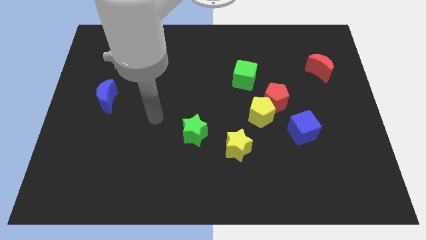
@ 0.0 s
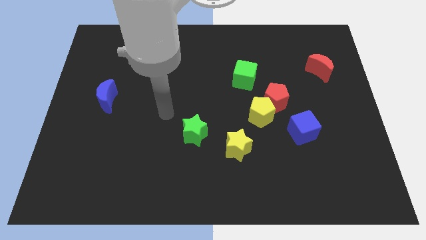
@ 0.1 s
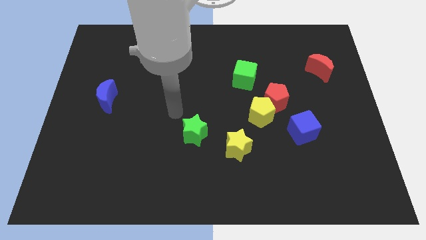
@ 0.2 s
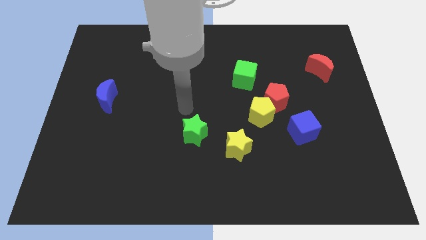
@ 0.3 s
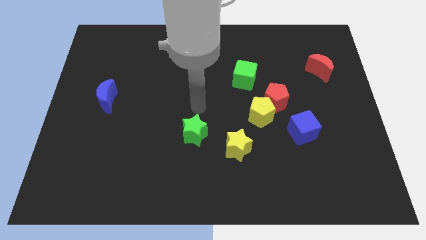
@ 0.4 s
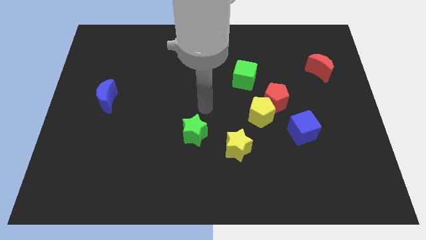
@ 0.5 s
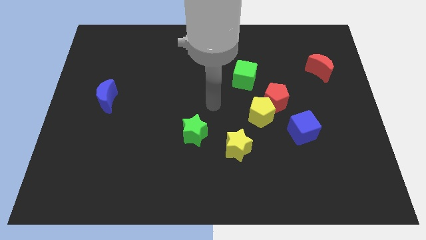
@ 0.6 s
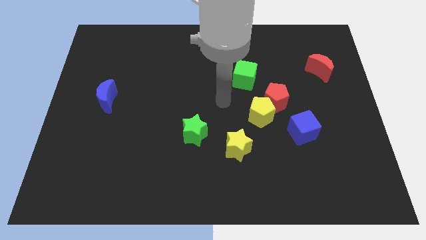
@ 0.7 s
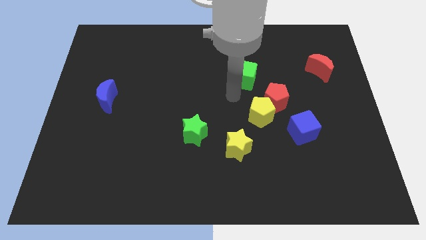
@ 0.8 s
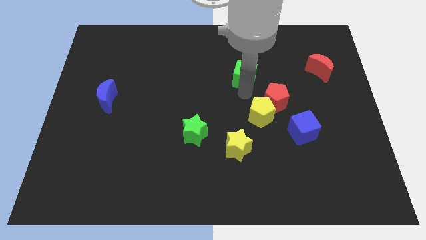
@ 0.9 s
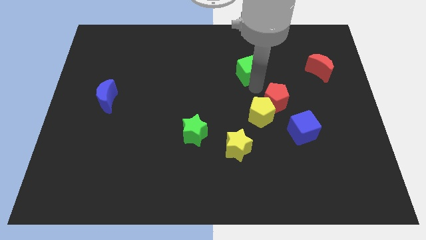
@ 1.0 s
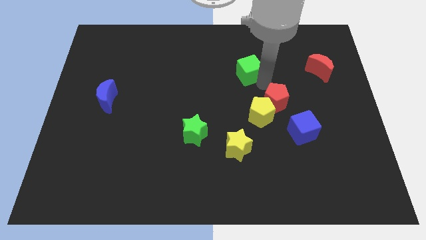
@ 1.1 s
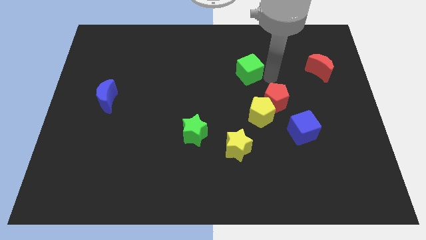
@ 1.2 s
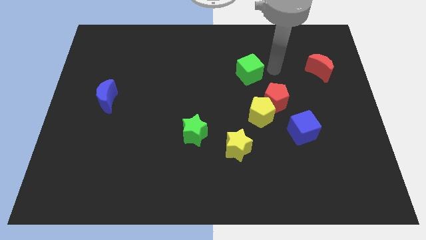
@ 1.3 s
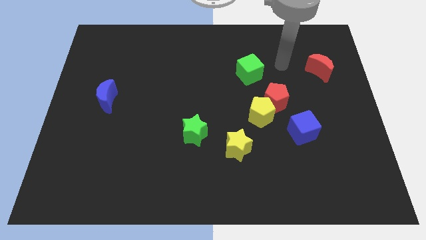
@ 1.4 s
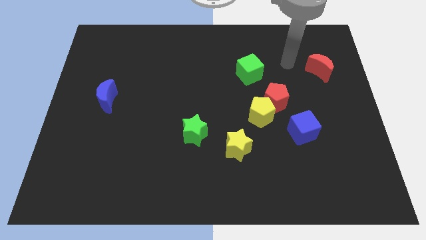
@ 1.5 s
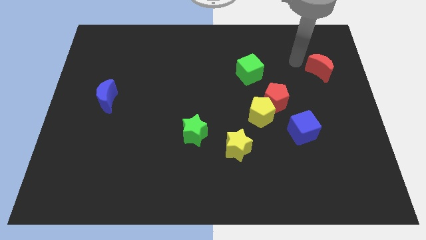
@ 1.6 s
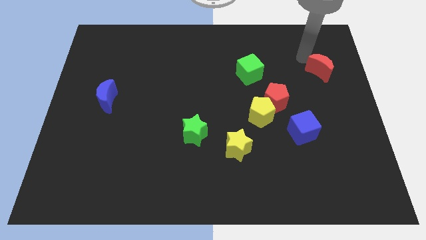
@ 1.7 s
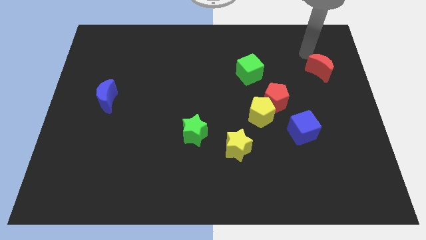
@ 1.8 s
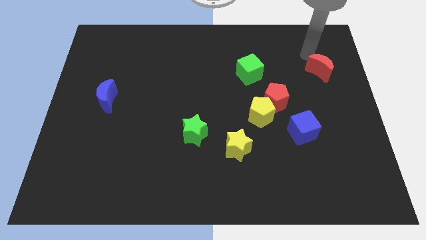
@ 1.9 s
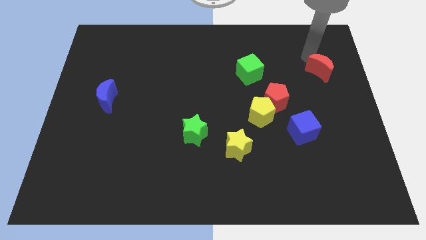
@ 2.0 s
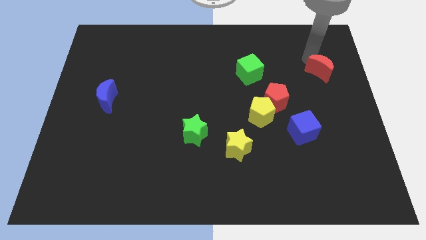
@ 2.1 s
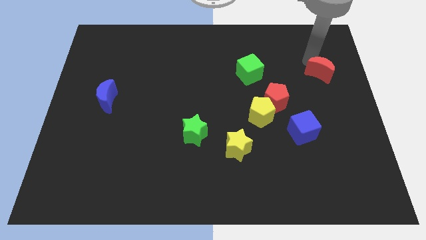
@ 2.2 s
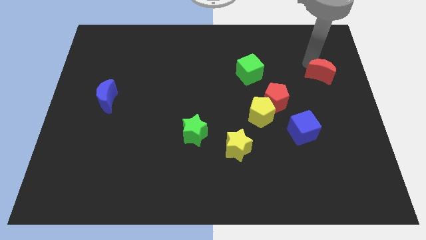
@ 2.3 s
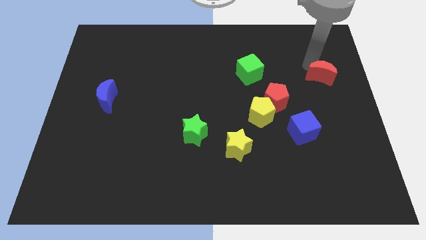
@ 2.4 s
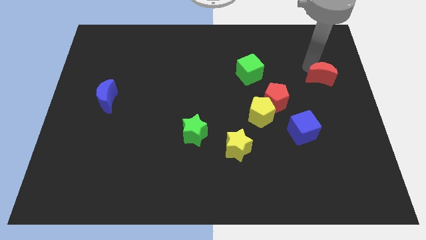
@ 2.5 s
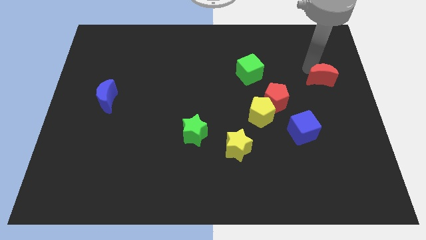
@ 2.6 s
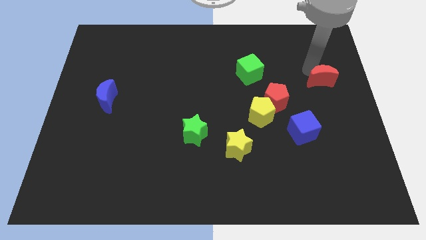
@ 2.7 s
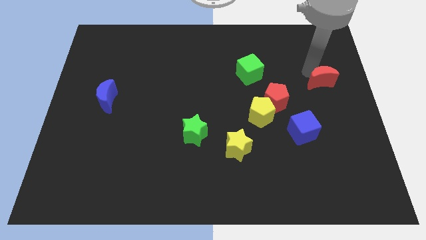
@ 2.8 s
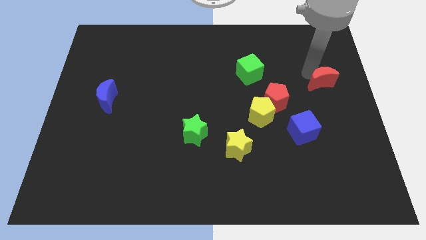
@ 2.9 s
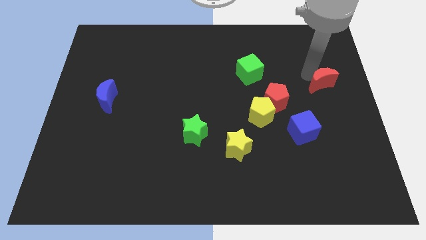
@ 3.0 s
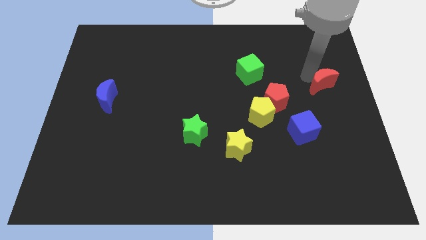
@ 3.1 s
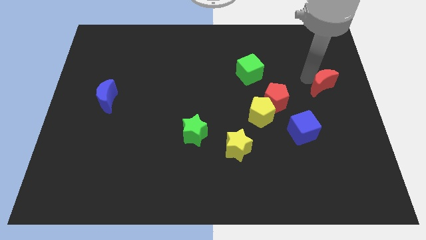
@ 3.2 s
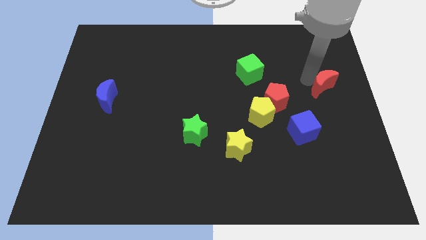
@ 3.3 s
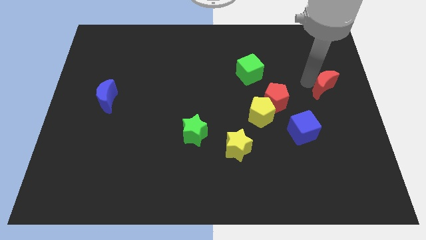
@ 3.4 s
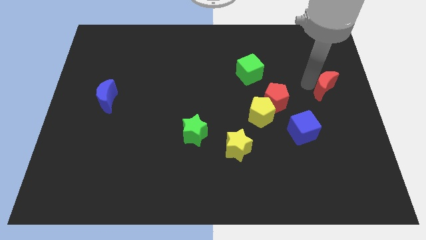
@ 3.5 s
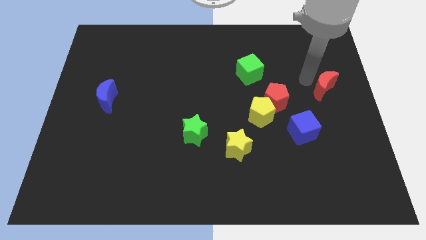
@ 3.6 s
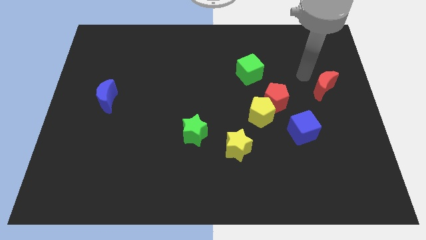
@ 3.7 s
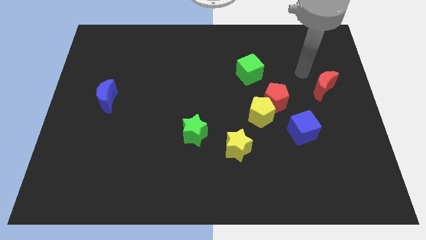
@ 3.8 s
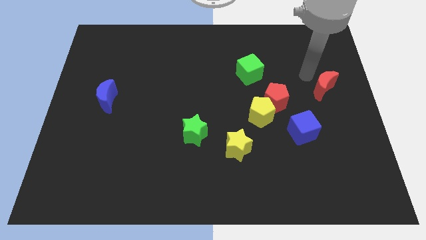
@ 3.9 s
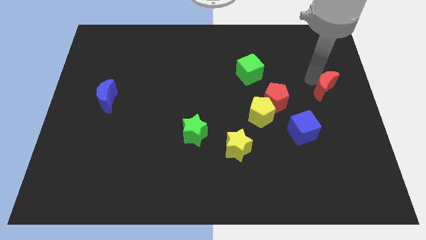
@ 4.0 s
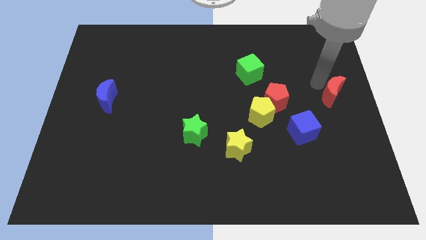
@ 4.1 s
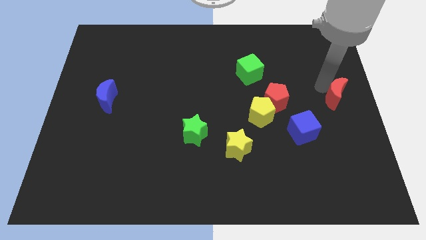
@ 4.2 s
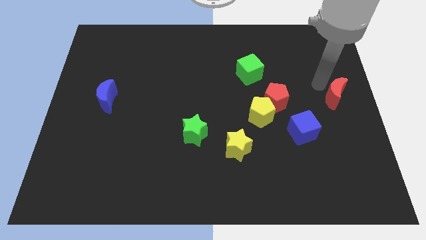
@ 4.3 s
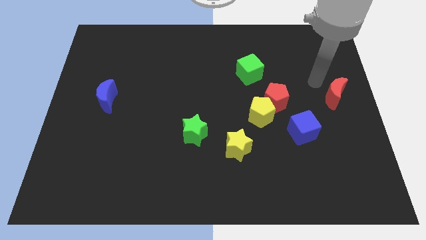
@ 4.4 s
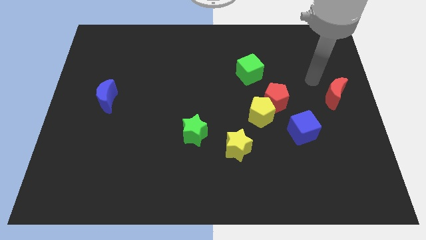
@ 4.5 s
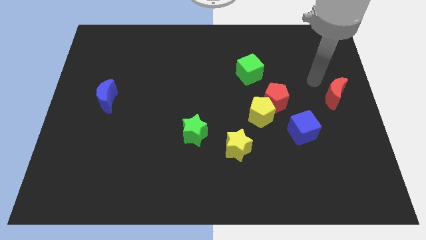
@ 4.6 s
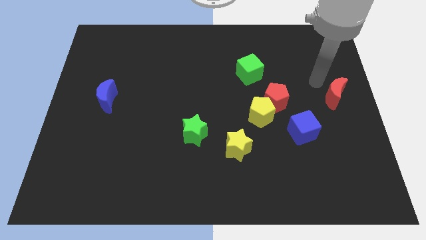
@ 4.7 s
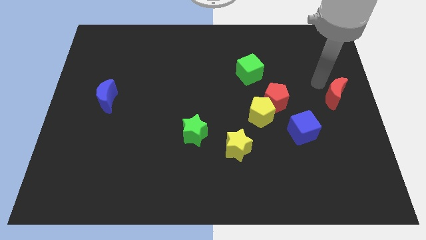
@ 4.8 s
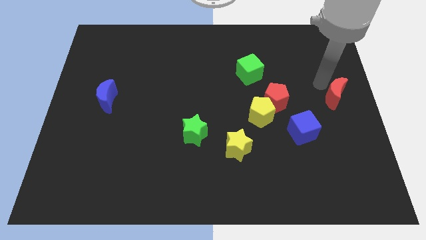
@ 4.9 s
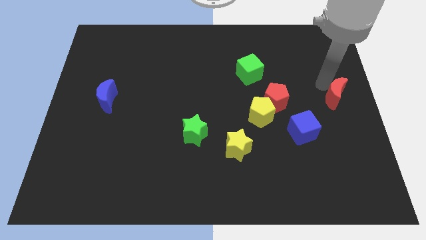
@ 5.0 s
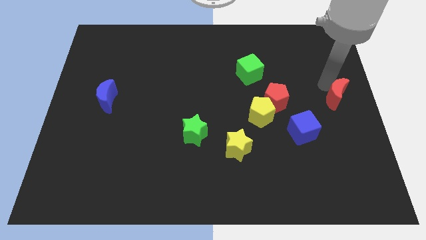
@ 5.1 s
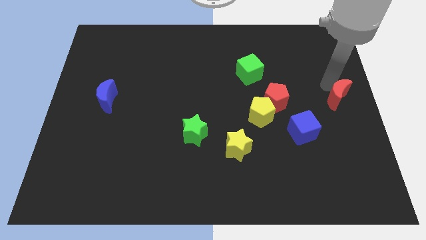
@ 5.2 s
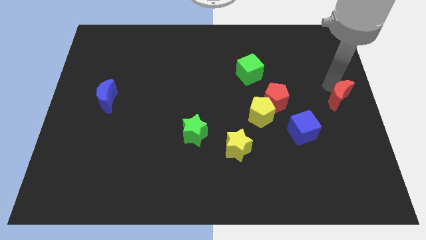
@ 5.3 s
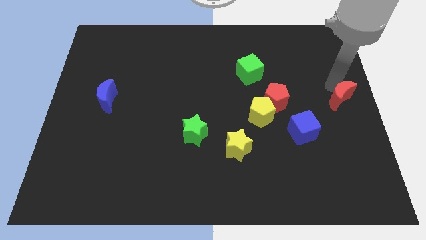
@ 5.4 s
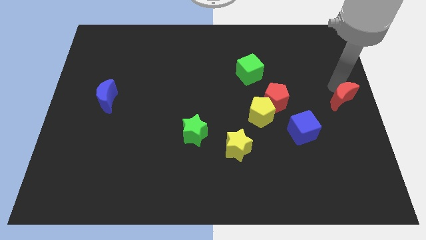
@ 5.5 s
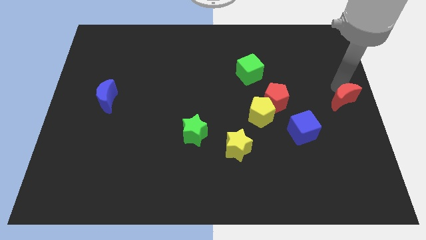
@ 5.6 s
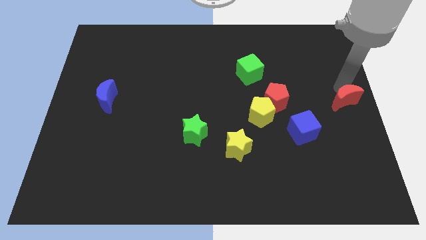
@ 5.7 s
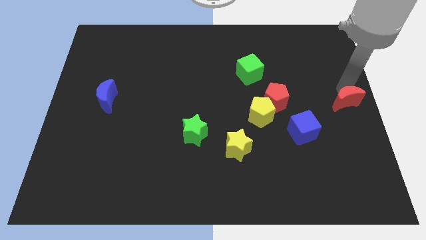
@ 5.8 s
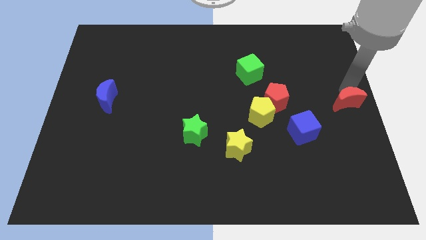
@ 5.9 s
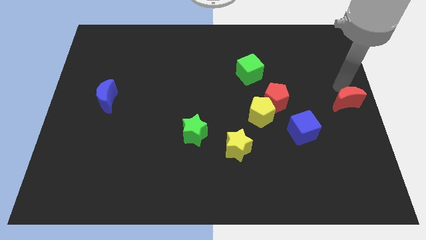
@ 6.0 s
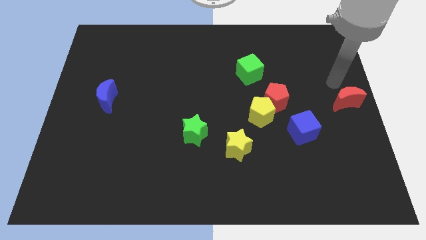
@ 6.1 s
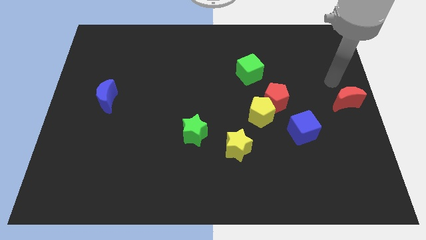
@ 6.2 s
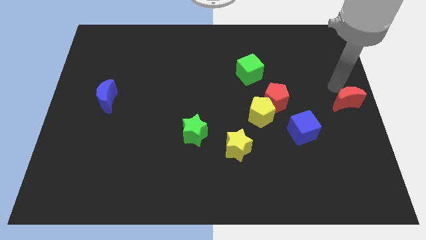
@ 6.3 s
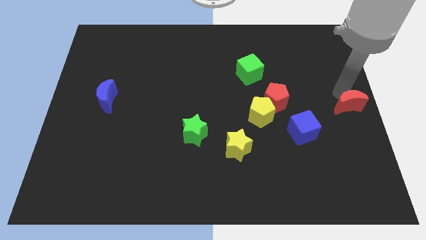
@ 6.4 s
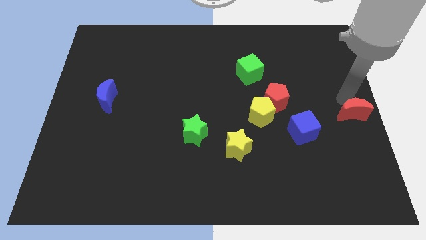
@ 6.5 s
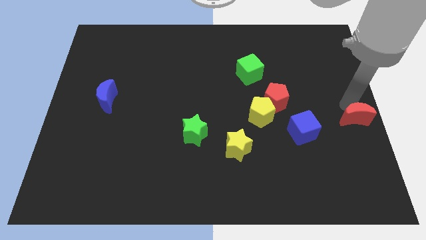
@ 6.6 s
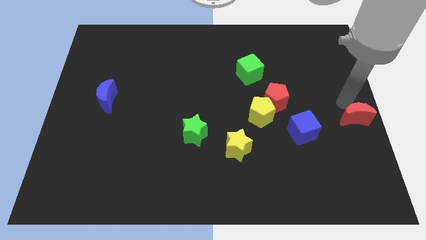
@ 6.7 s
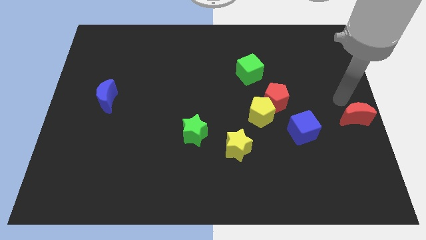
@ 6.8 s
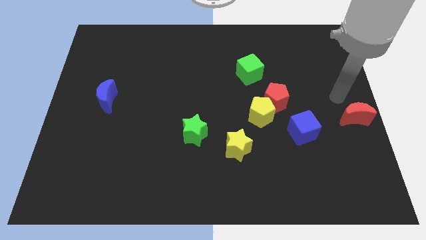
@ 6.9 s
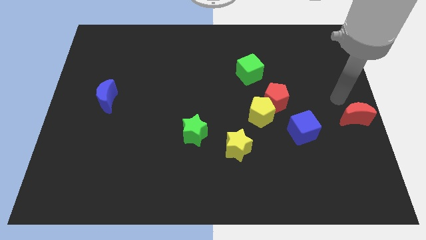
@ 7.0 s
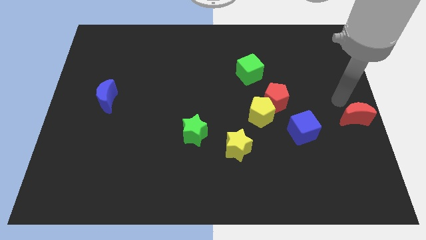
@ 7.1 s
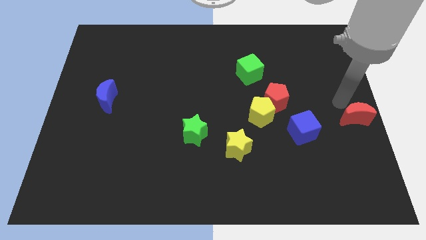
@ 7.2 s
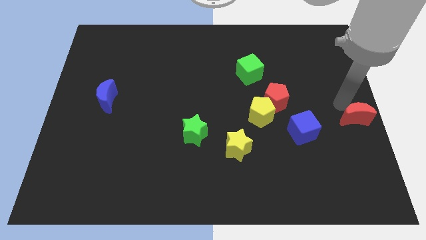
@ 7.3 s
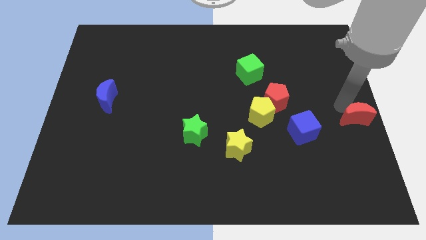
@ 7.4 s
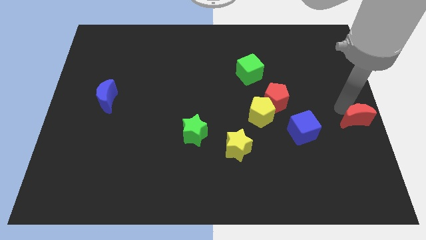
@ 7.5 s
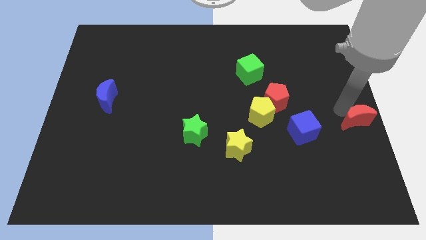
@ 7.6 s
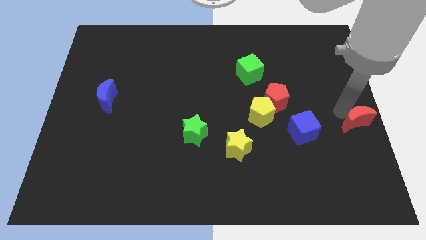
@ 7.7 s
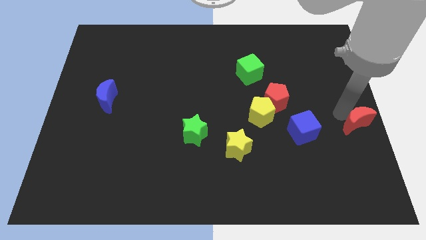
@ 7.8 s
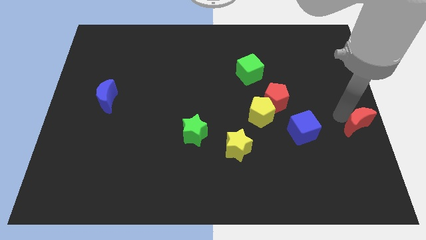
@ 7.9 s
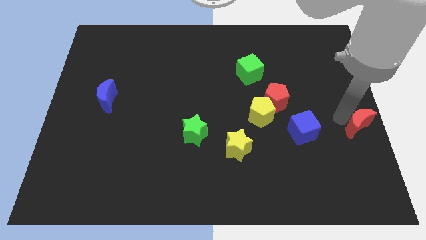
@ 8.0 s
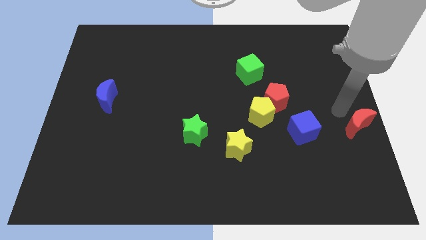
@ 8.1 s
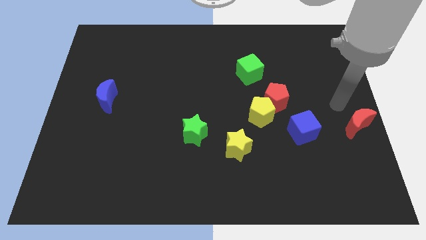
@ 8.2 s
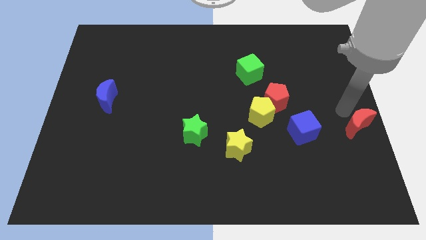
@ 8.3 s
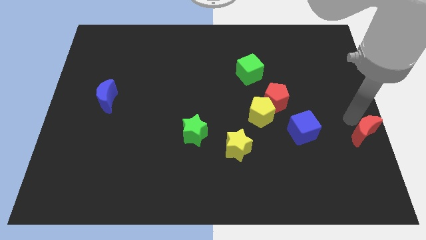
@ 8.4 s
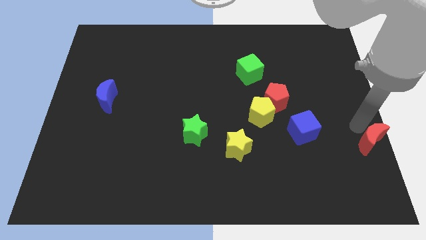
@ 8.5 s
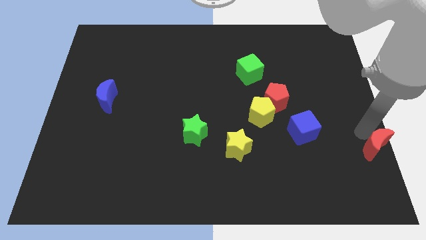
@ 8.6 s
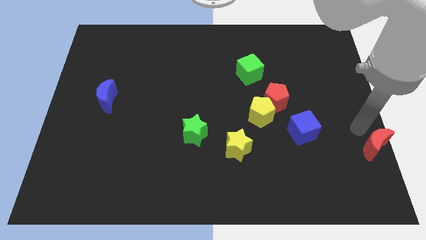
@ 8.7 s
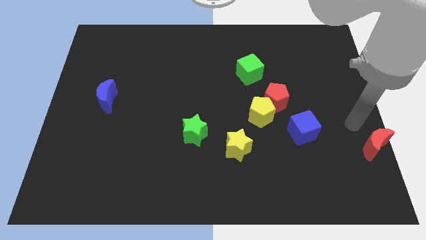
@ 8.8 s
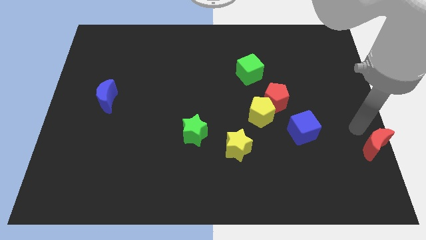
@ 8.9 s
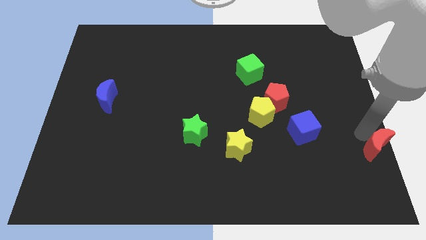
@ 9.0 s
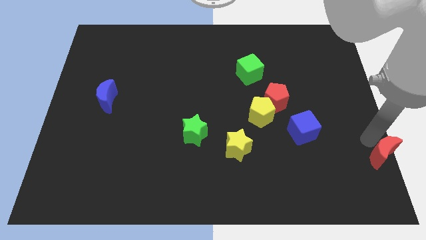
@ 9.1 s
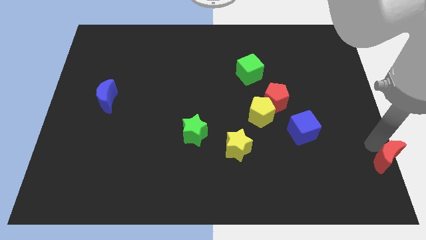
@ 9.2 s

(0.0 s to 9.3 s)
push the red moon to the lower right corner
